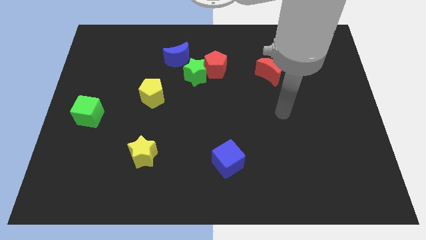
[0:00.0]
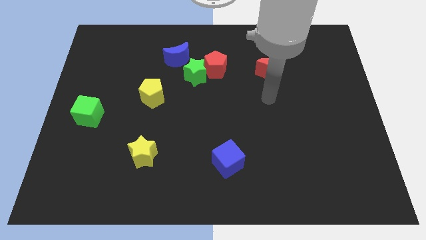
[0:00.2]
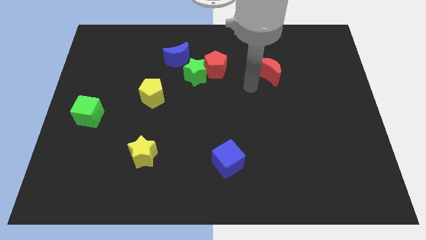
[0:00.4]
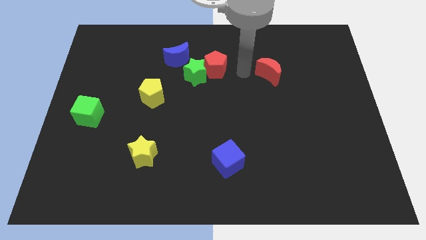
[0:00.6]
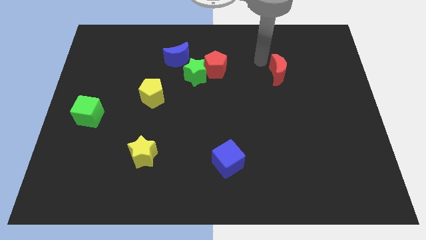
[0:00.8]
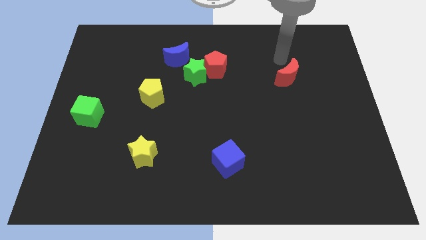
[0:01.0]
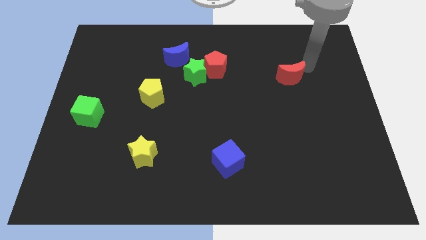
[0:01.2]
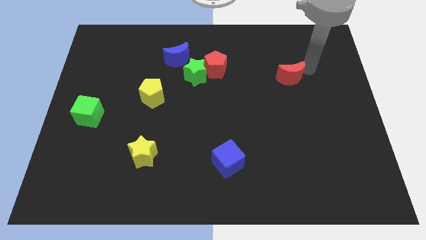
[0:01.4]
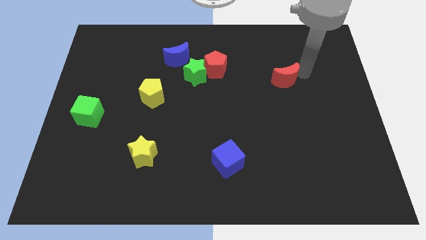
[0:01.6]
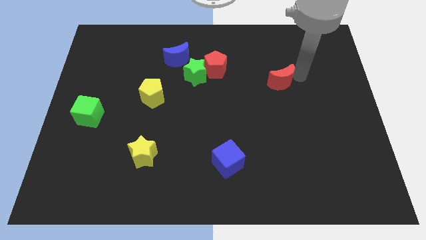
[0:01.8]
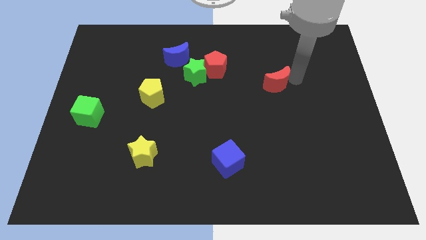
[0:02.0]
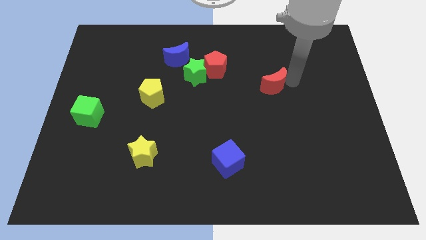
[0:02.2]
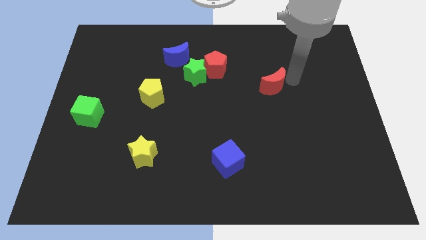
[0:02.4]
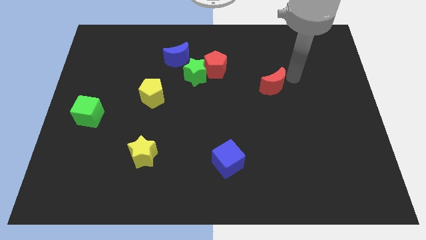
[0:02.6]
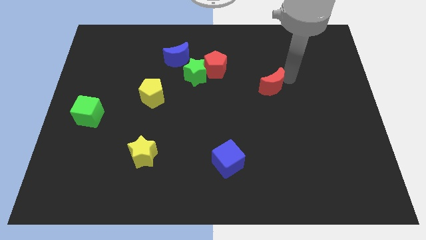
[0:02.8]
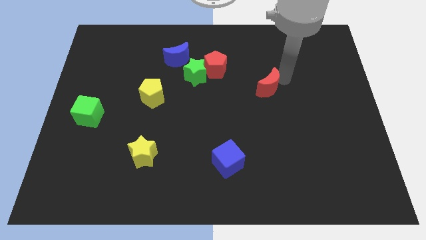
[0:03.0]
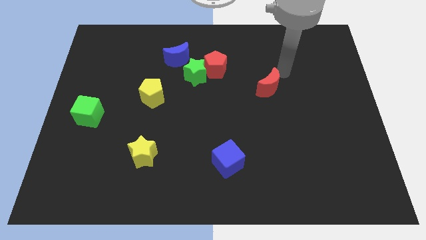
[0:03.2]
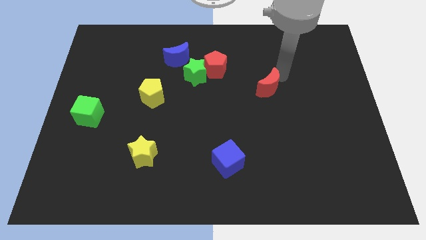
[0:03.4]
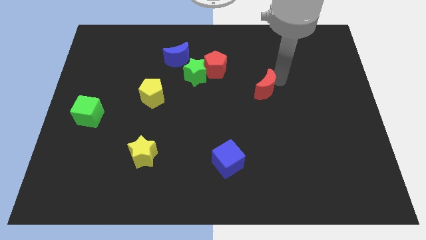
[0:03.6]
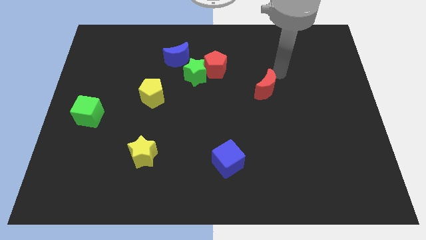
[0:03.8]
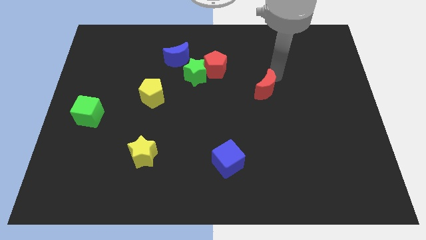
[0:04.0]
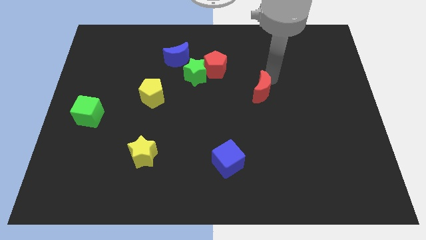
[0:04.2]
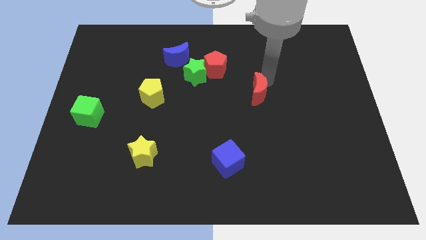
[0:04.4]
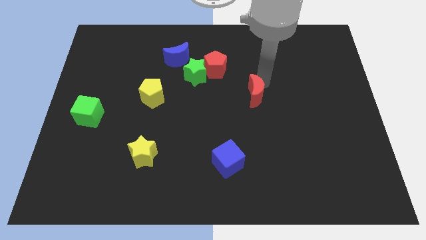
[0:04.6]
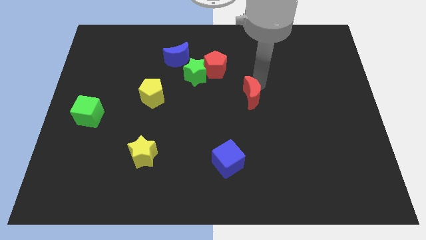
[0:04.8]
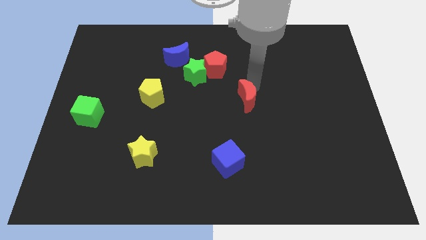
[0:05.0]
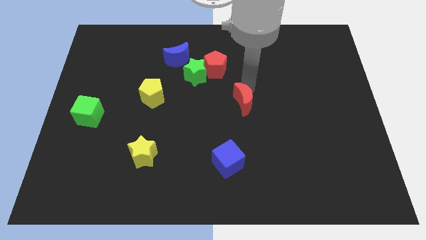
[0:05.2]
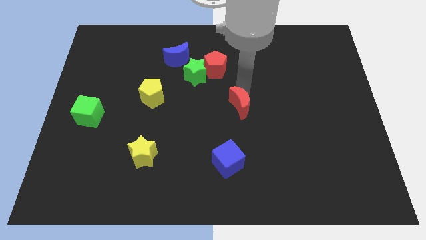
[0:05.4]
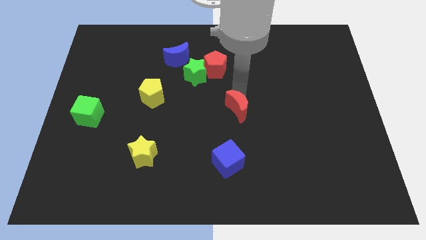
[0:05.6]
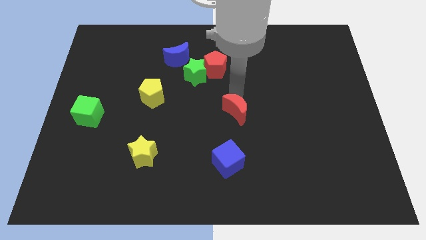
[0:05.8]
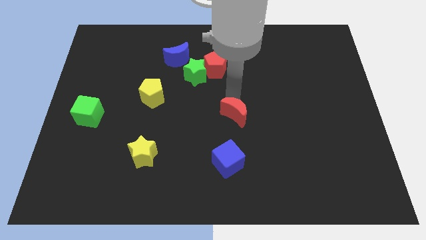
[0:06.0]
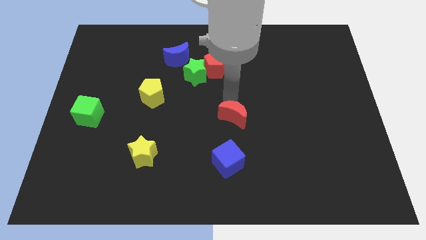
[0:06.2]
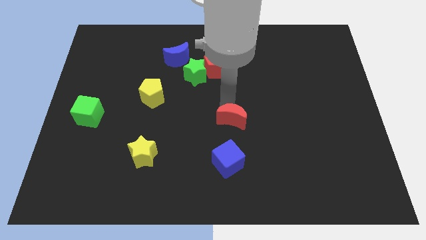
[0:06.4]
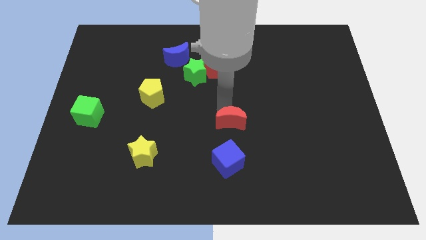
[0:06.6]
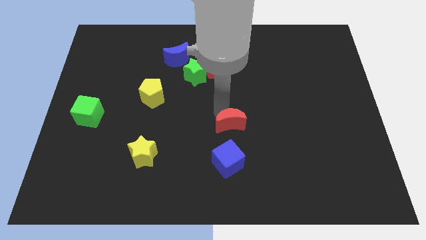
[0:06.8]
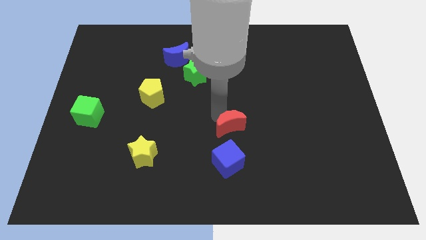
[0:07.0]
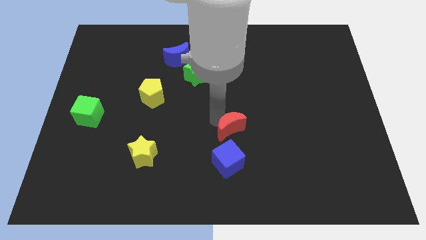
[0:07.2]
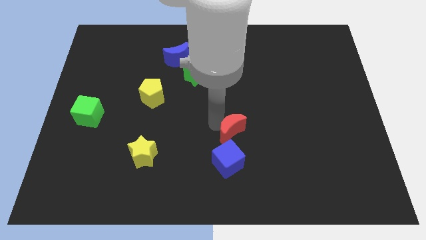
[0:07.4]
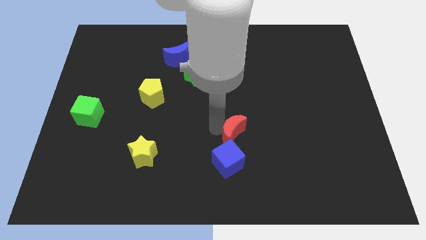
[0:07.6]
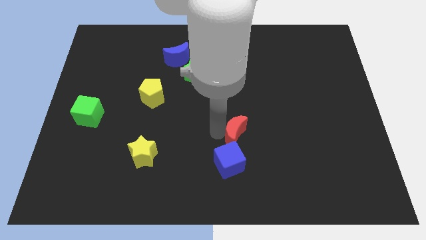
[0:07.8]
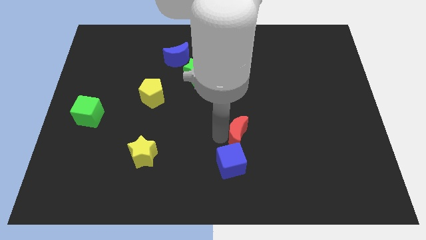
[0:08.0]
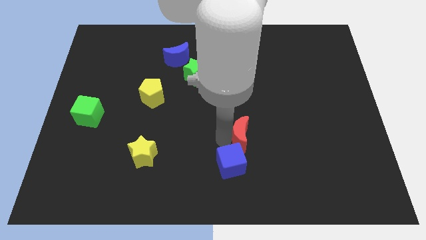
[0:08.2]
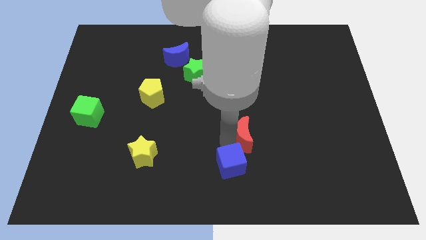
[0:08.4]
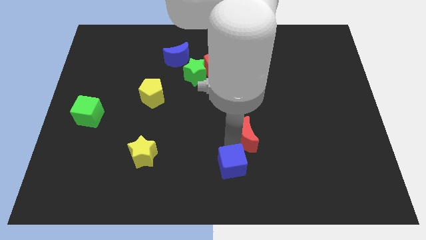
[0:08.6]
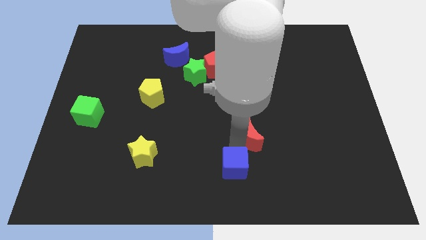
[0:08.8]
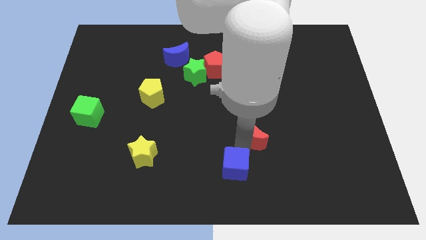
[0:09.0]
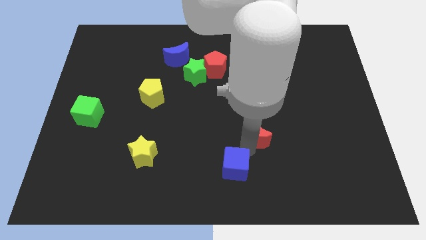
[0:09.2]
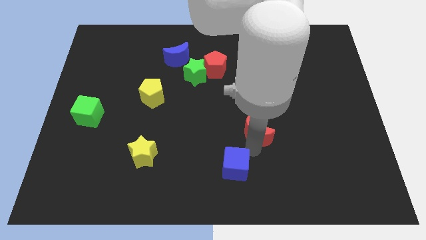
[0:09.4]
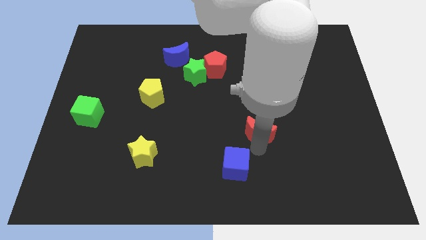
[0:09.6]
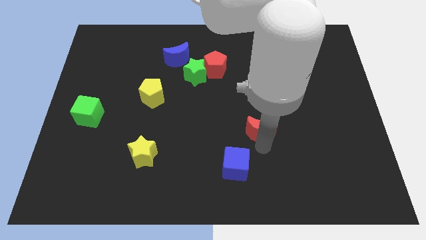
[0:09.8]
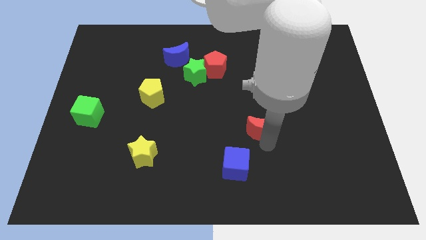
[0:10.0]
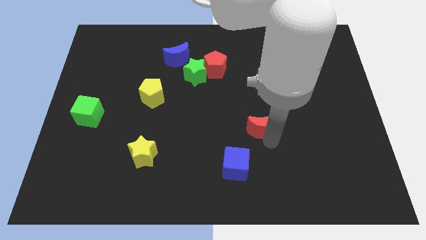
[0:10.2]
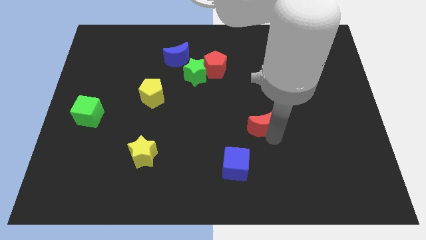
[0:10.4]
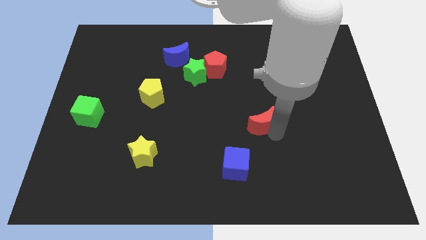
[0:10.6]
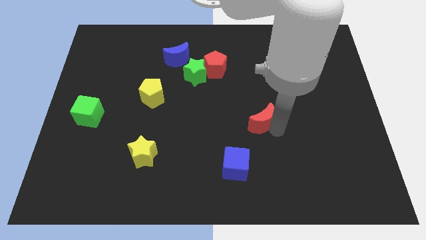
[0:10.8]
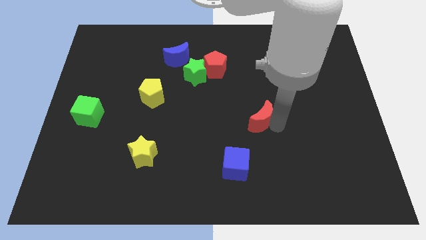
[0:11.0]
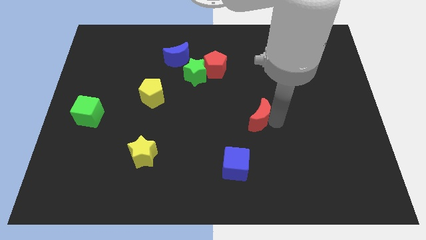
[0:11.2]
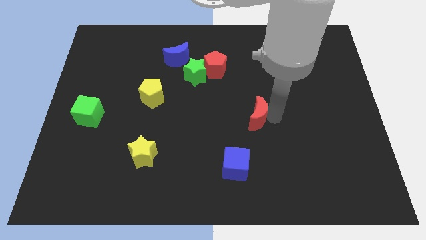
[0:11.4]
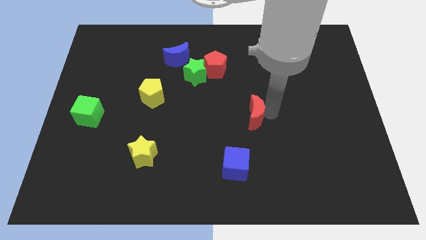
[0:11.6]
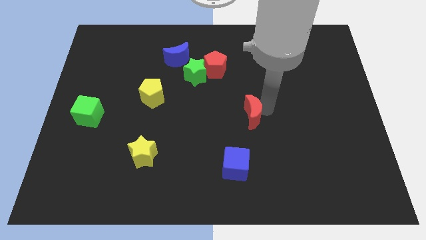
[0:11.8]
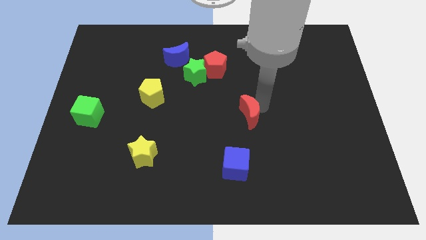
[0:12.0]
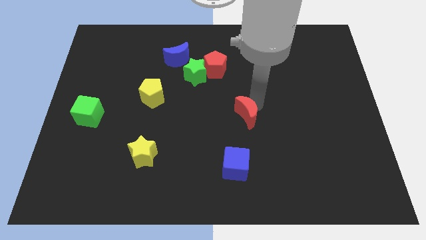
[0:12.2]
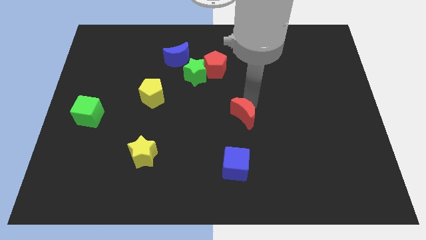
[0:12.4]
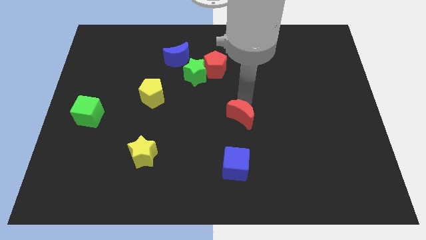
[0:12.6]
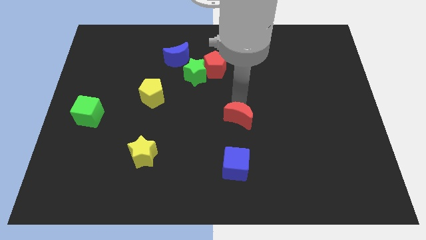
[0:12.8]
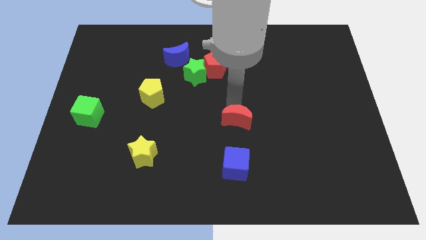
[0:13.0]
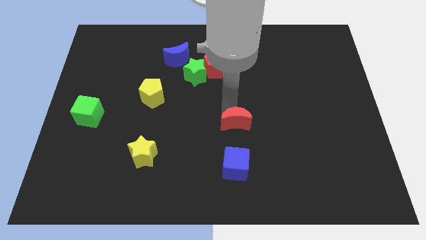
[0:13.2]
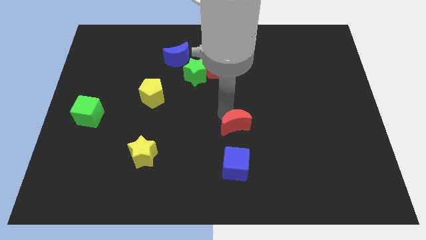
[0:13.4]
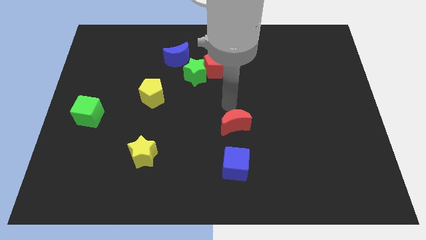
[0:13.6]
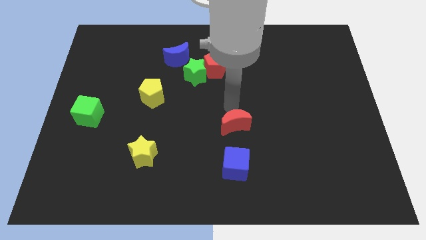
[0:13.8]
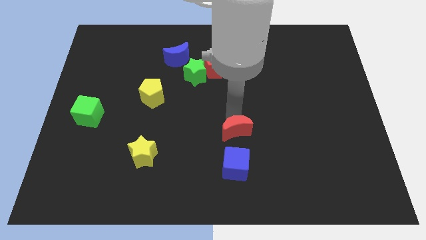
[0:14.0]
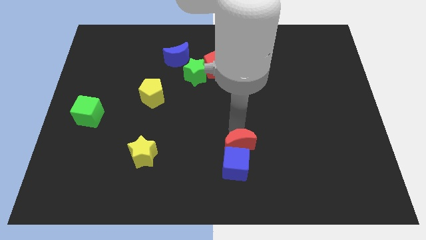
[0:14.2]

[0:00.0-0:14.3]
move the red moon to the blue cube
